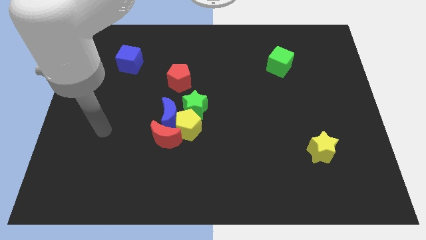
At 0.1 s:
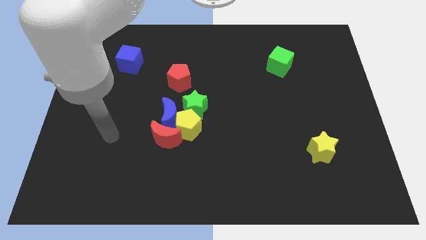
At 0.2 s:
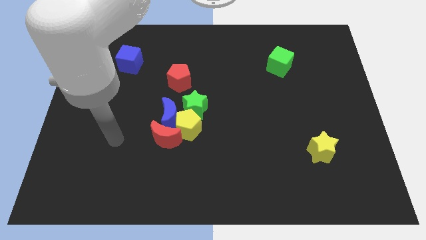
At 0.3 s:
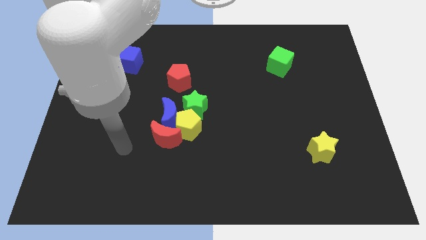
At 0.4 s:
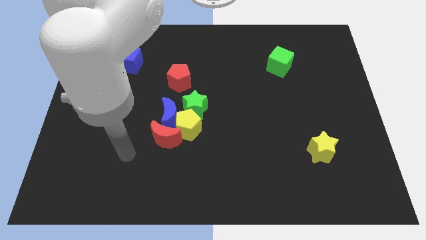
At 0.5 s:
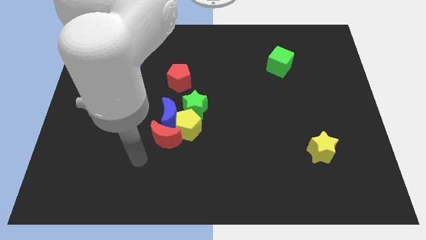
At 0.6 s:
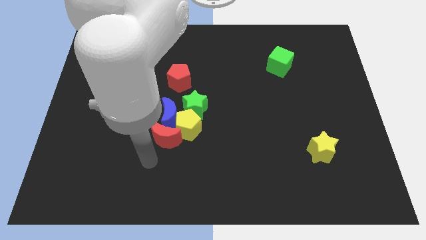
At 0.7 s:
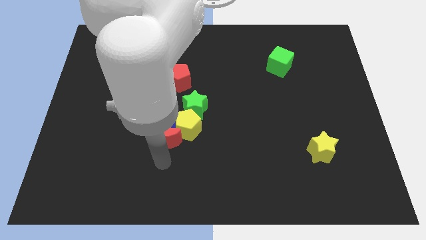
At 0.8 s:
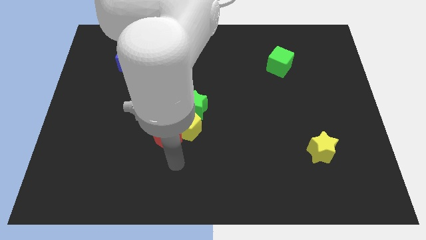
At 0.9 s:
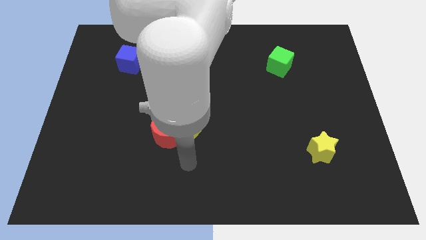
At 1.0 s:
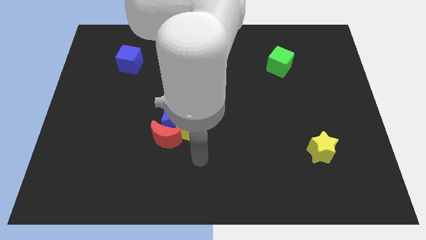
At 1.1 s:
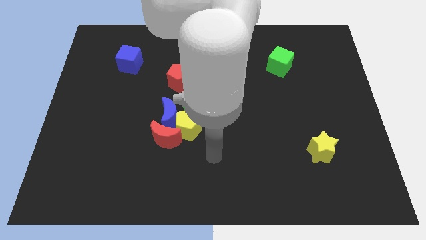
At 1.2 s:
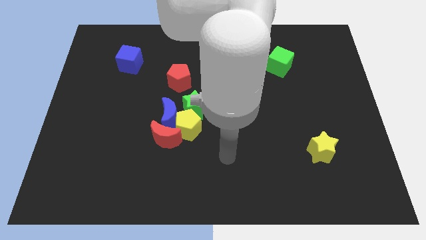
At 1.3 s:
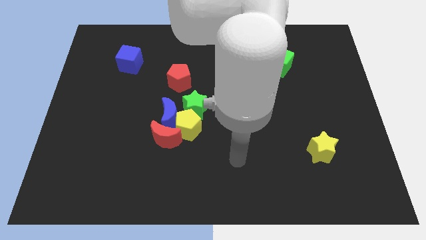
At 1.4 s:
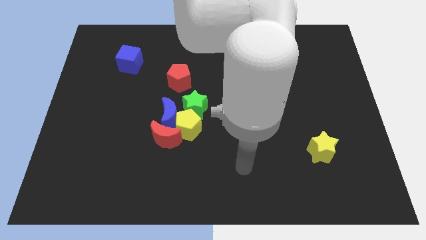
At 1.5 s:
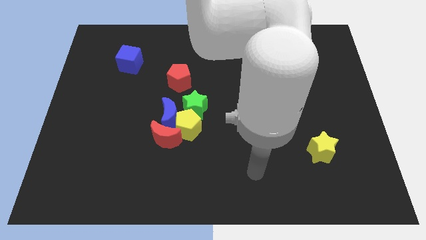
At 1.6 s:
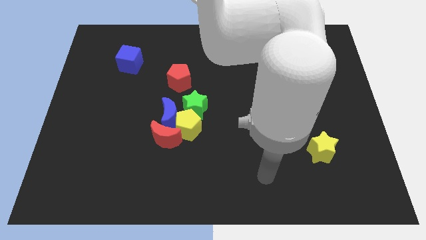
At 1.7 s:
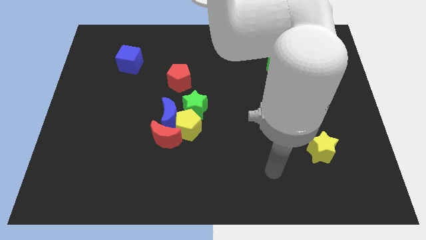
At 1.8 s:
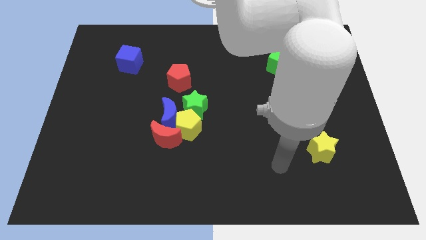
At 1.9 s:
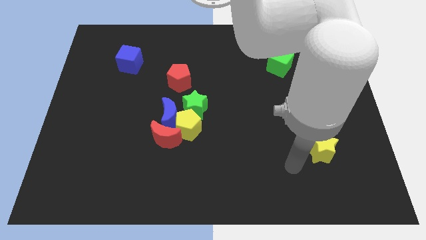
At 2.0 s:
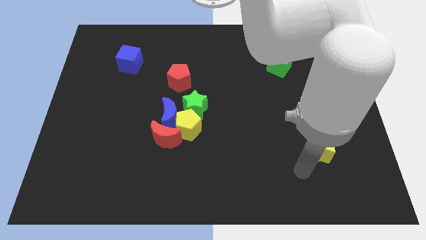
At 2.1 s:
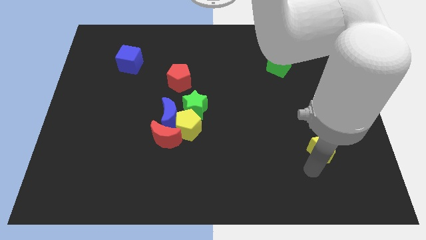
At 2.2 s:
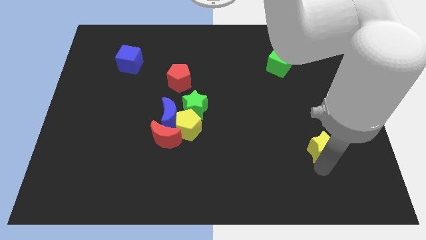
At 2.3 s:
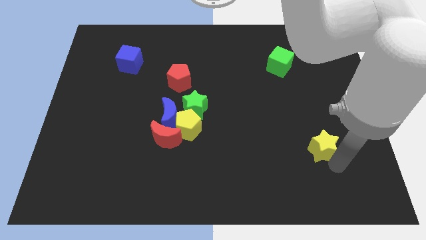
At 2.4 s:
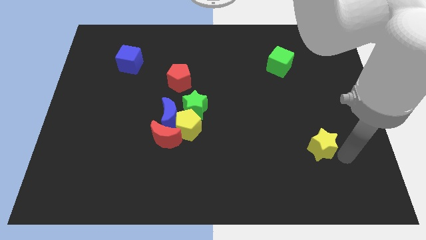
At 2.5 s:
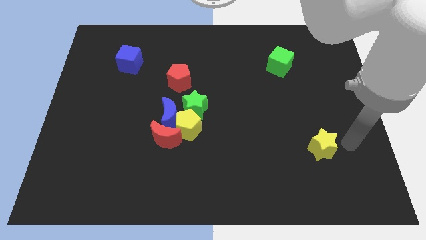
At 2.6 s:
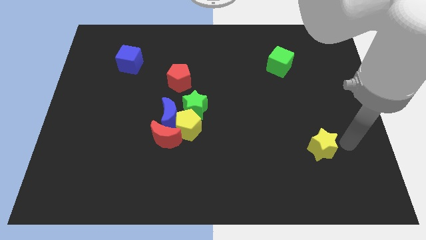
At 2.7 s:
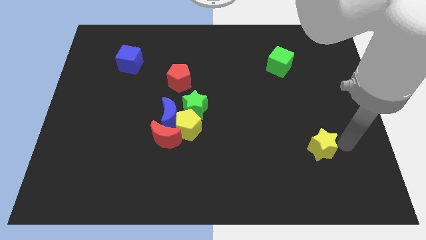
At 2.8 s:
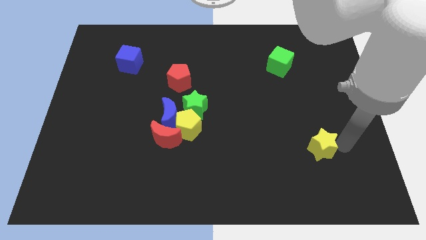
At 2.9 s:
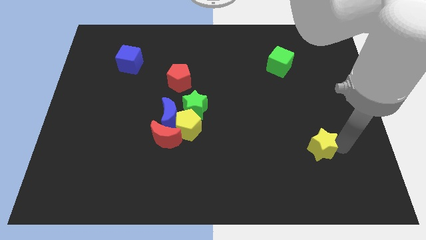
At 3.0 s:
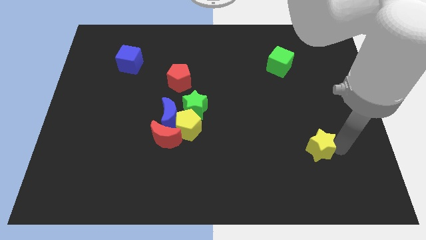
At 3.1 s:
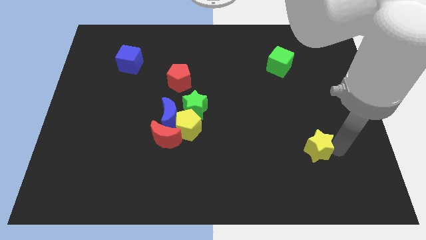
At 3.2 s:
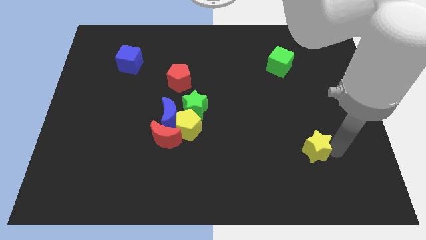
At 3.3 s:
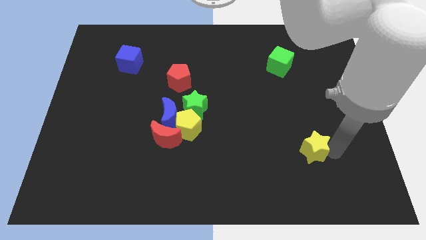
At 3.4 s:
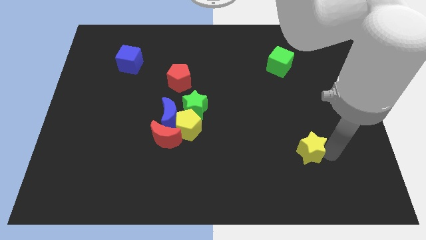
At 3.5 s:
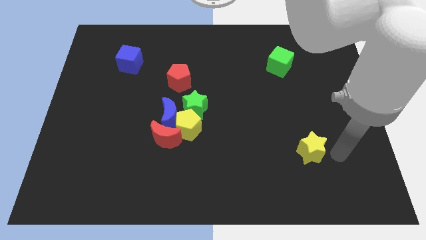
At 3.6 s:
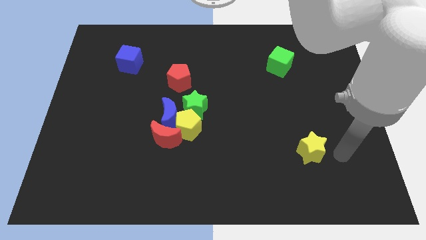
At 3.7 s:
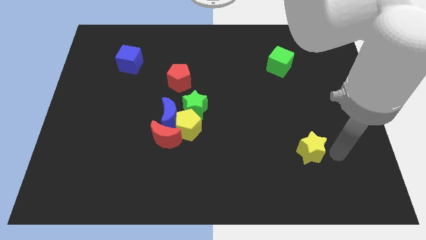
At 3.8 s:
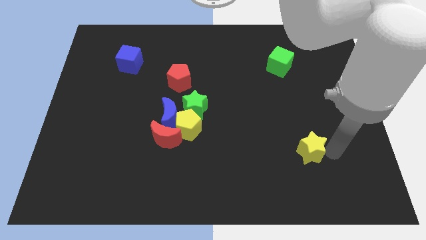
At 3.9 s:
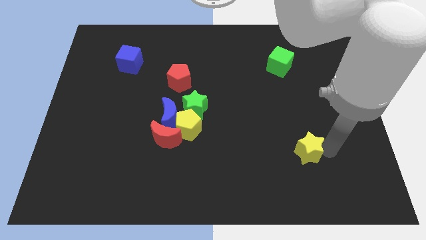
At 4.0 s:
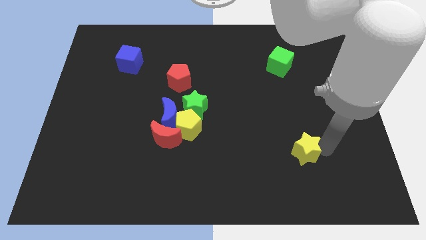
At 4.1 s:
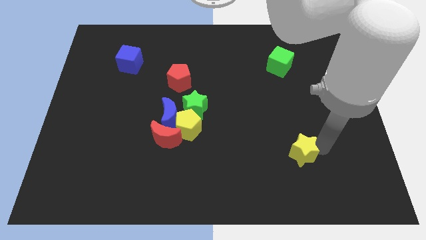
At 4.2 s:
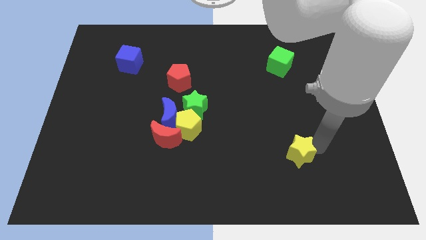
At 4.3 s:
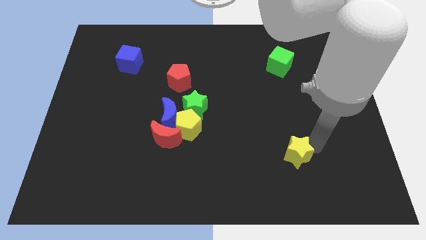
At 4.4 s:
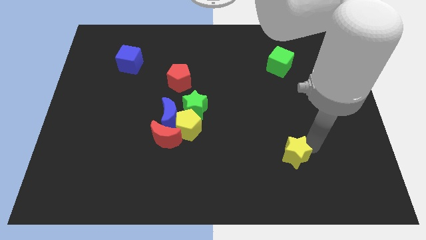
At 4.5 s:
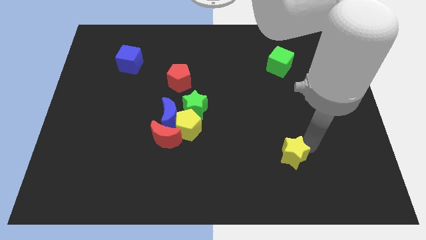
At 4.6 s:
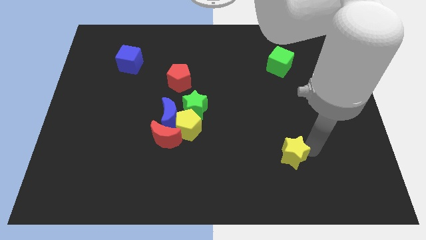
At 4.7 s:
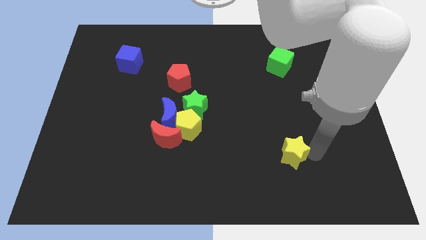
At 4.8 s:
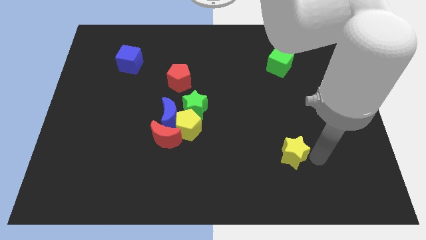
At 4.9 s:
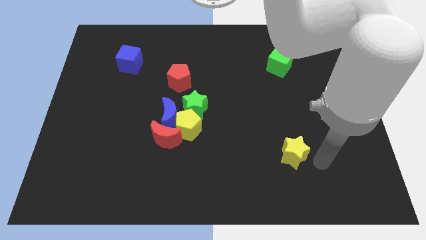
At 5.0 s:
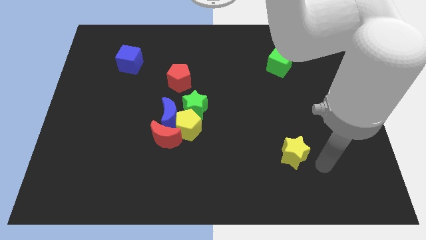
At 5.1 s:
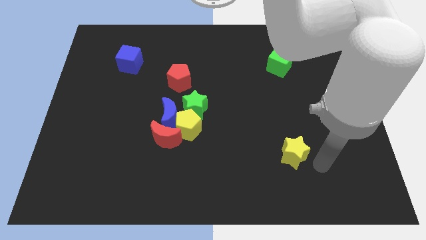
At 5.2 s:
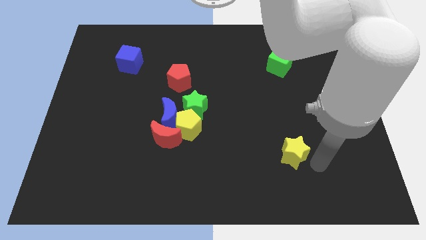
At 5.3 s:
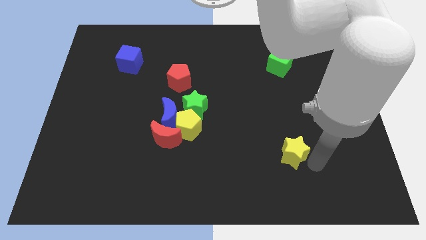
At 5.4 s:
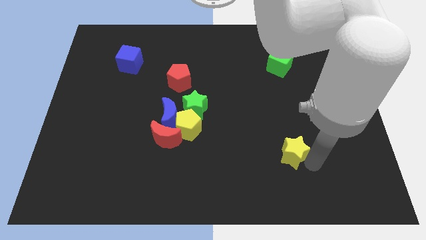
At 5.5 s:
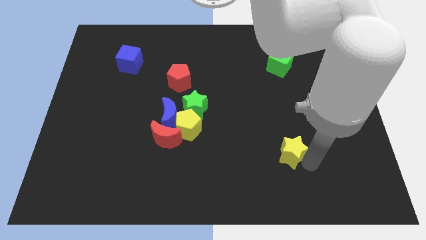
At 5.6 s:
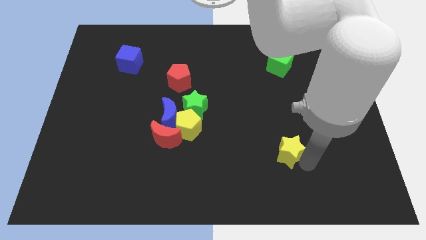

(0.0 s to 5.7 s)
slightly slide the yellow star left

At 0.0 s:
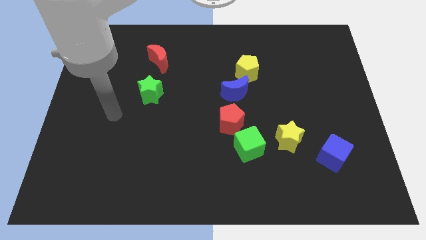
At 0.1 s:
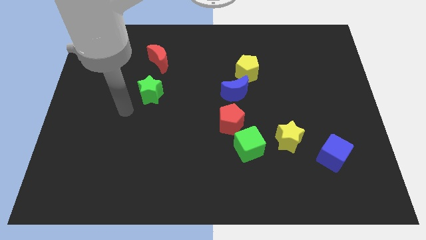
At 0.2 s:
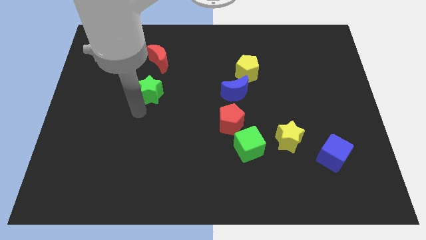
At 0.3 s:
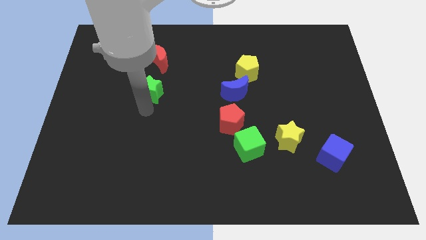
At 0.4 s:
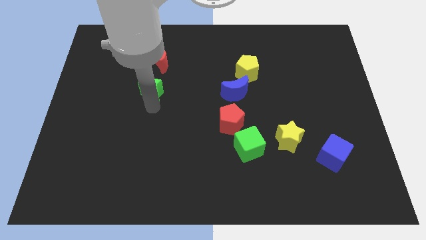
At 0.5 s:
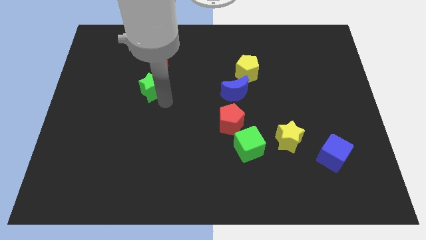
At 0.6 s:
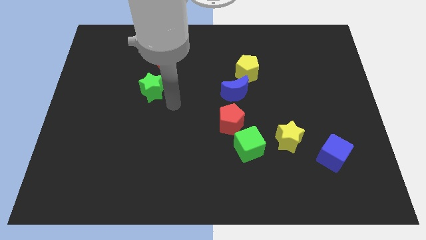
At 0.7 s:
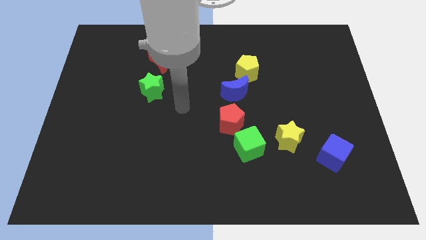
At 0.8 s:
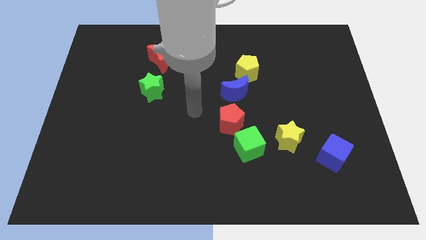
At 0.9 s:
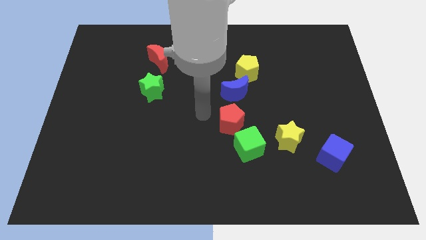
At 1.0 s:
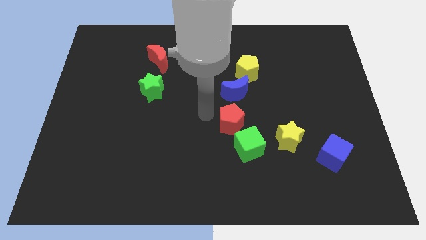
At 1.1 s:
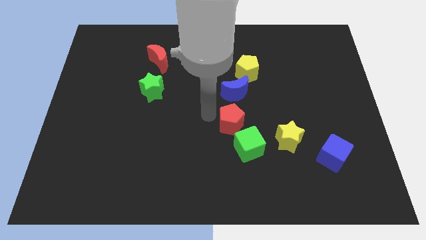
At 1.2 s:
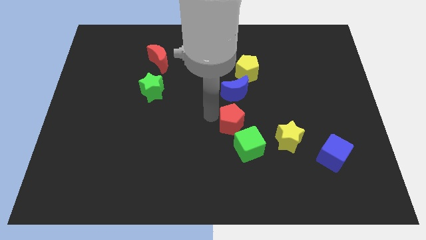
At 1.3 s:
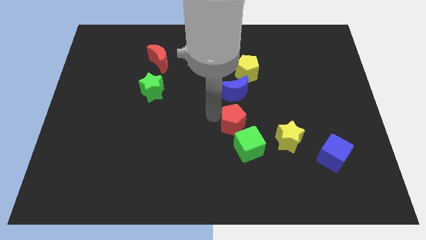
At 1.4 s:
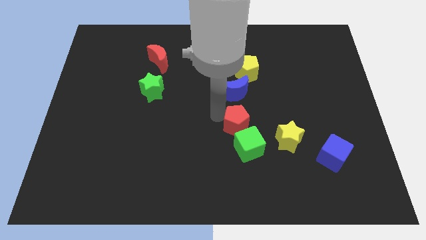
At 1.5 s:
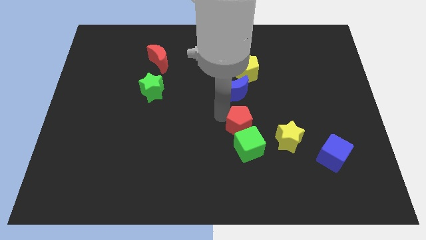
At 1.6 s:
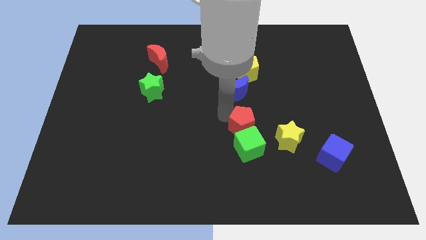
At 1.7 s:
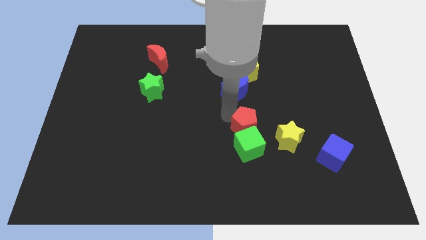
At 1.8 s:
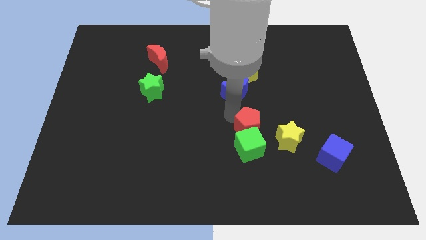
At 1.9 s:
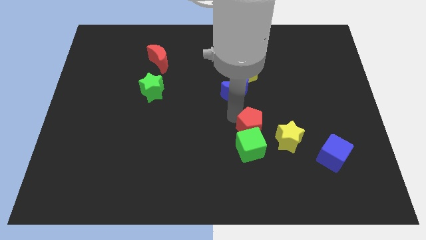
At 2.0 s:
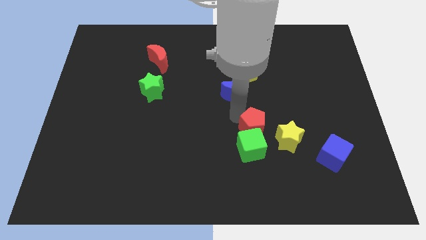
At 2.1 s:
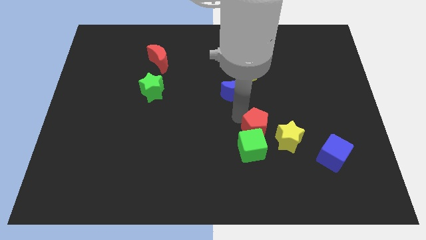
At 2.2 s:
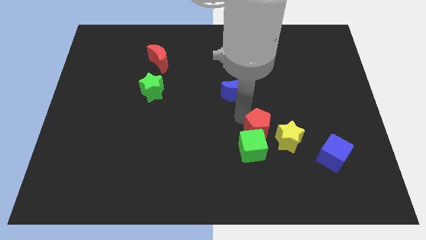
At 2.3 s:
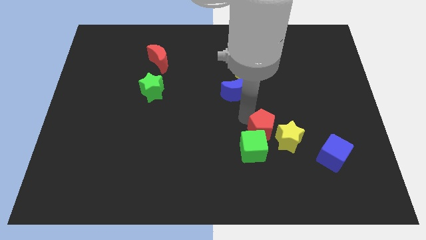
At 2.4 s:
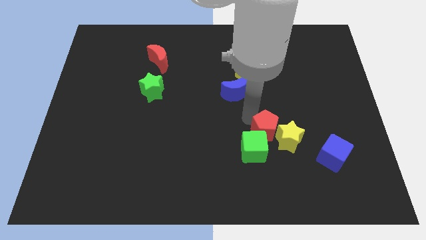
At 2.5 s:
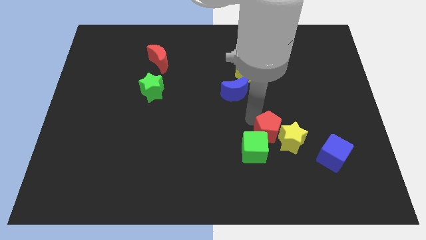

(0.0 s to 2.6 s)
slightly push the red pentagon down and to the right diagonally
